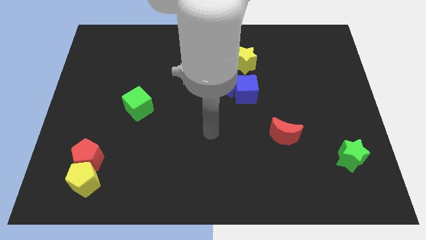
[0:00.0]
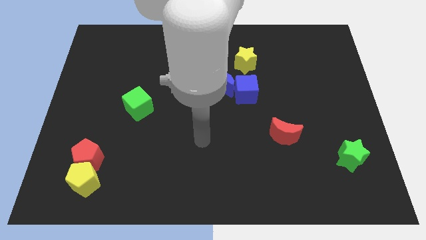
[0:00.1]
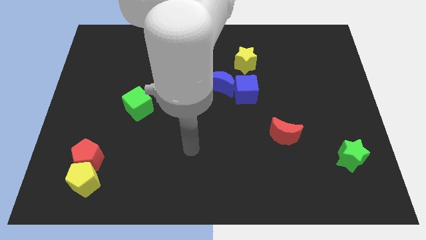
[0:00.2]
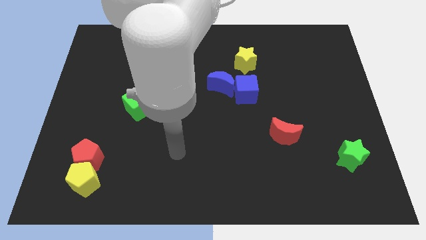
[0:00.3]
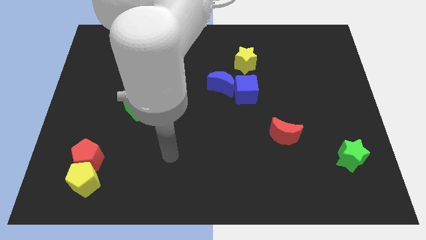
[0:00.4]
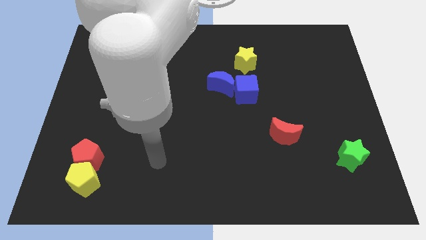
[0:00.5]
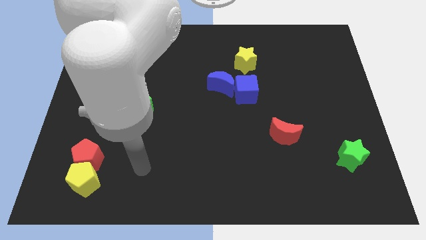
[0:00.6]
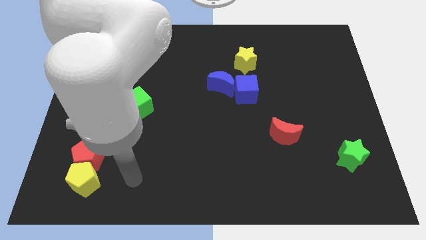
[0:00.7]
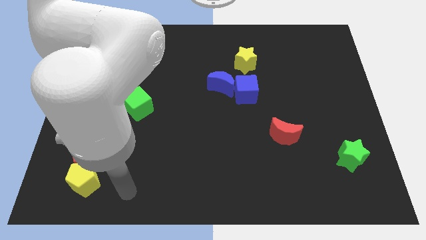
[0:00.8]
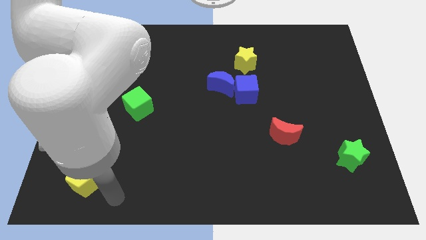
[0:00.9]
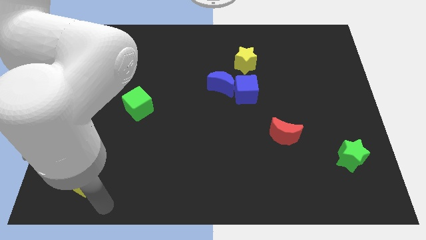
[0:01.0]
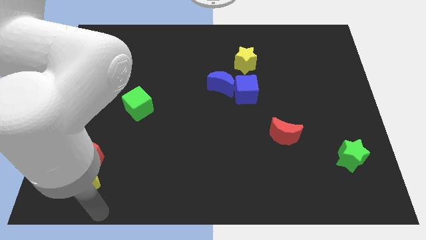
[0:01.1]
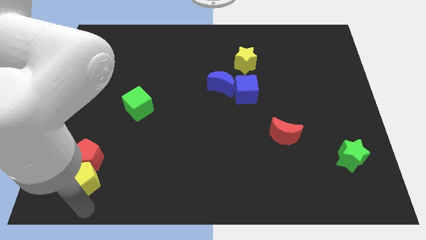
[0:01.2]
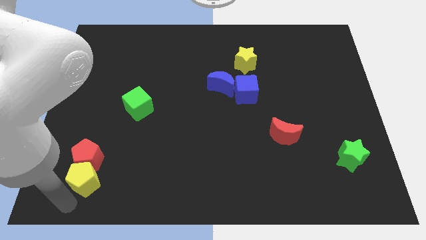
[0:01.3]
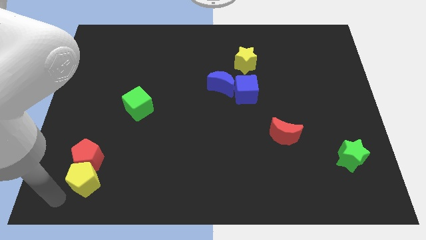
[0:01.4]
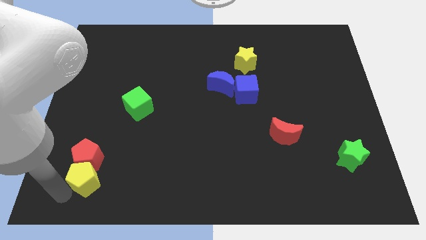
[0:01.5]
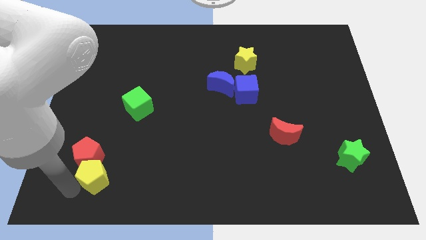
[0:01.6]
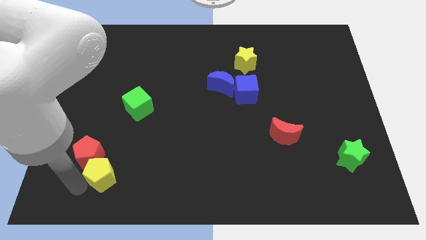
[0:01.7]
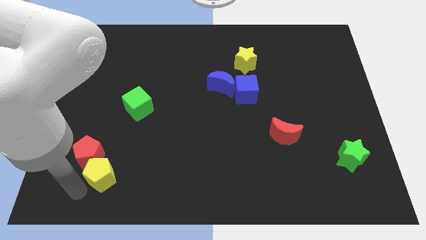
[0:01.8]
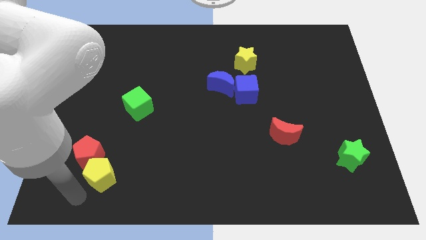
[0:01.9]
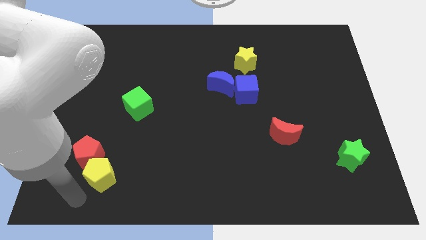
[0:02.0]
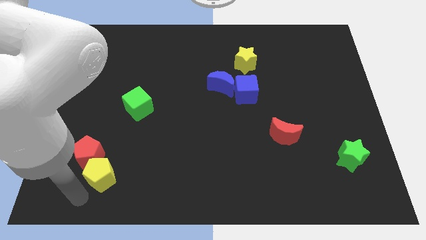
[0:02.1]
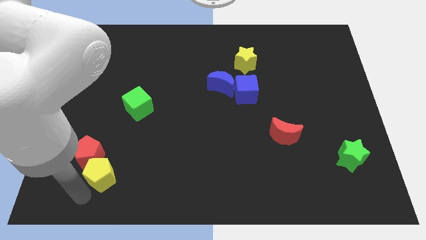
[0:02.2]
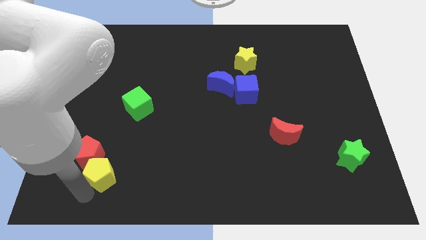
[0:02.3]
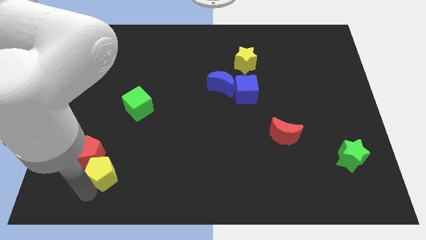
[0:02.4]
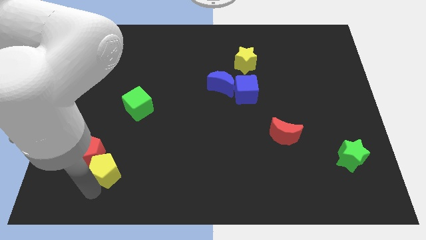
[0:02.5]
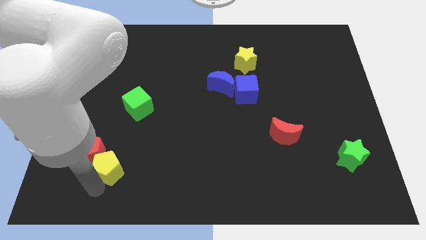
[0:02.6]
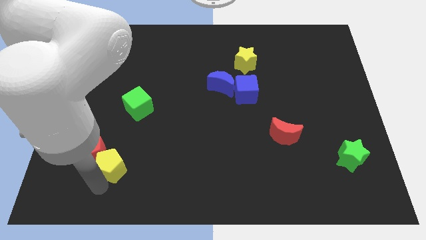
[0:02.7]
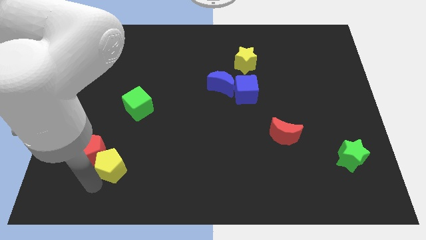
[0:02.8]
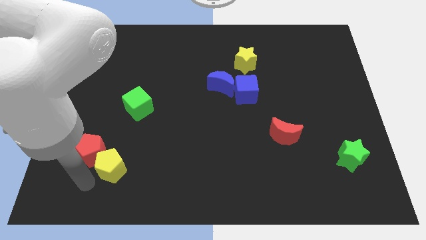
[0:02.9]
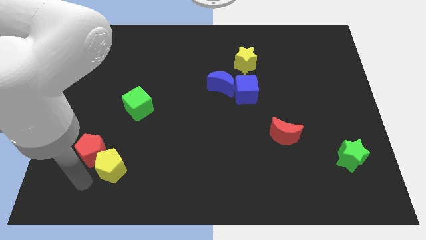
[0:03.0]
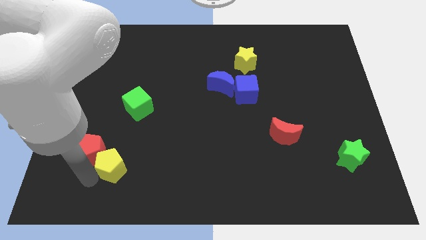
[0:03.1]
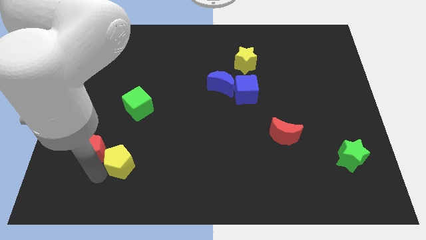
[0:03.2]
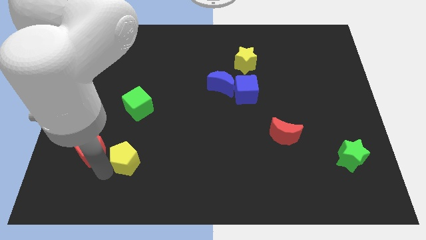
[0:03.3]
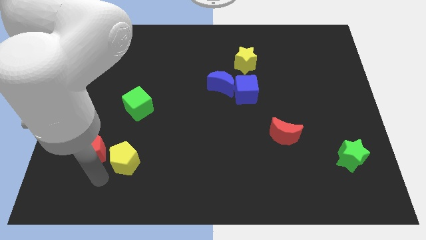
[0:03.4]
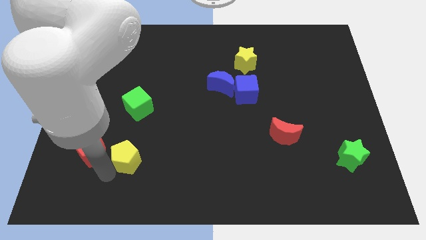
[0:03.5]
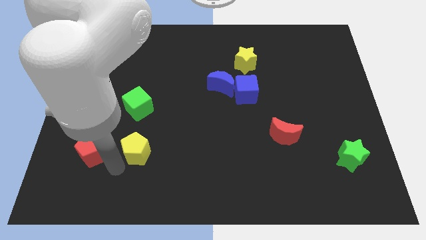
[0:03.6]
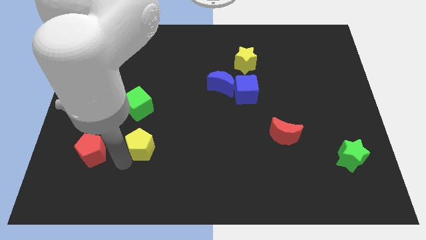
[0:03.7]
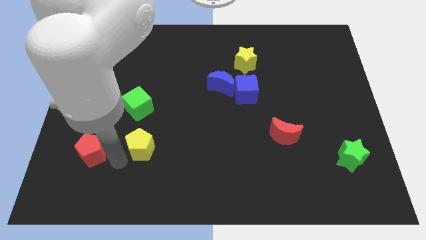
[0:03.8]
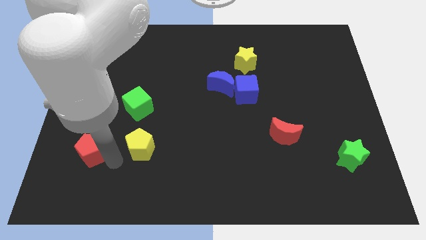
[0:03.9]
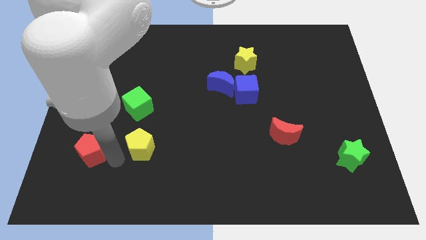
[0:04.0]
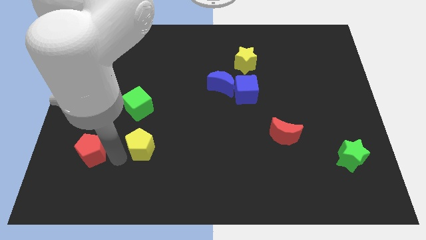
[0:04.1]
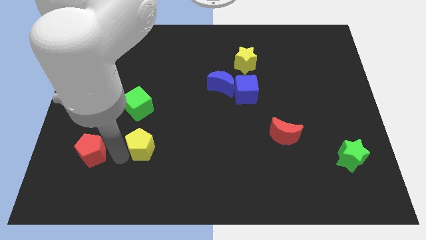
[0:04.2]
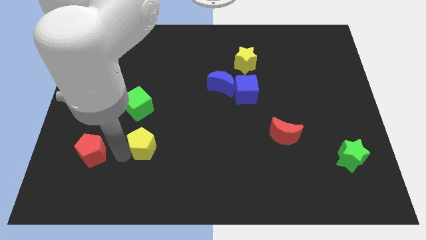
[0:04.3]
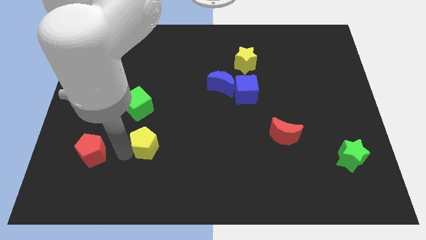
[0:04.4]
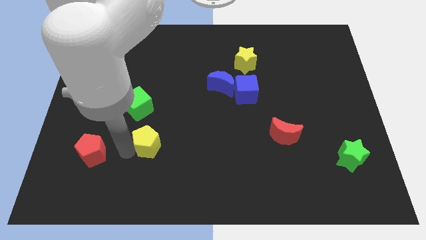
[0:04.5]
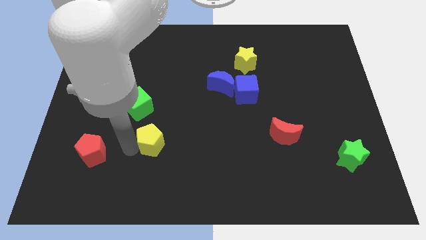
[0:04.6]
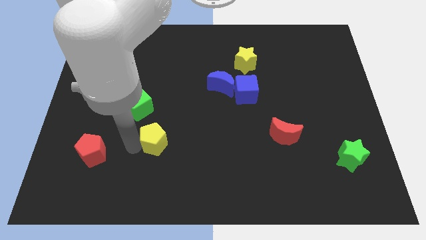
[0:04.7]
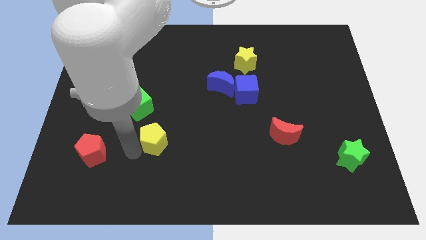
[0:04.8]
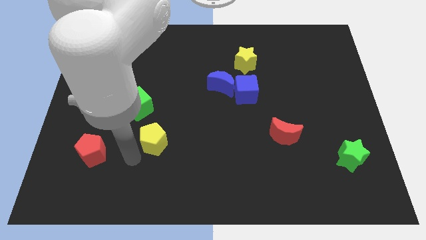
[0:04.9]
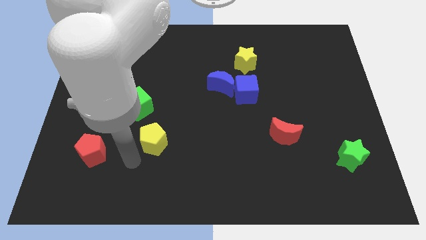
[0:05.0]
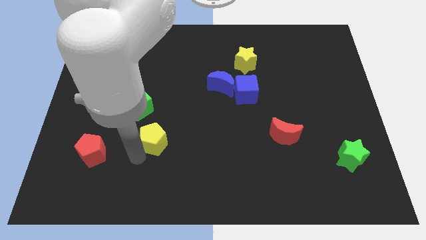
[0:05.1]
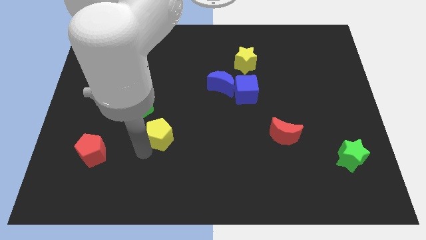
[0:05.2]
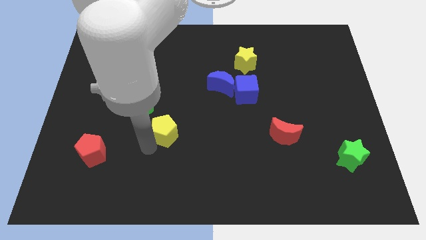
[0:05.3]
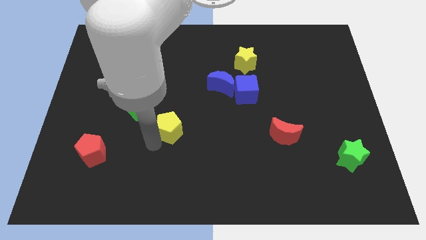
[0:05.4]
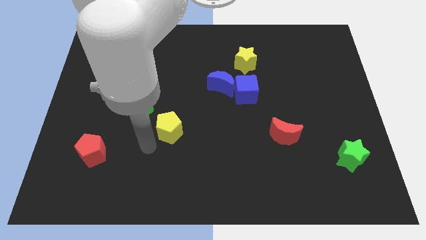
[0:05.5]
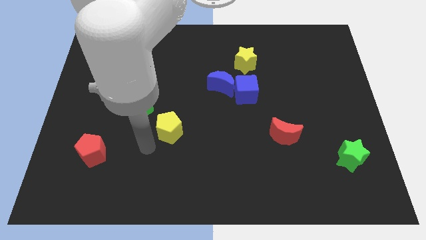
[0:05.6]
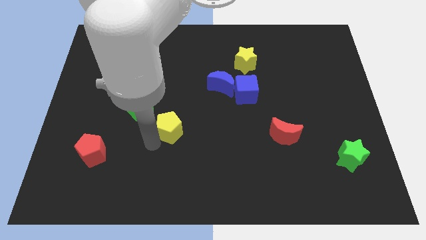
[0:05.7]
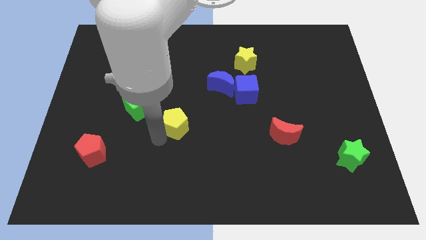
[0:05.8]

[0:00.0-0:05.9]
push the yellow pentagon to the middle
